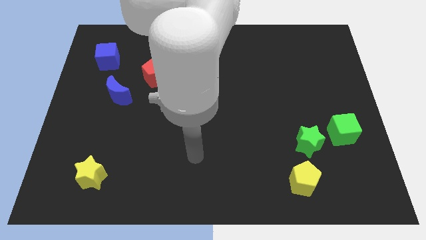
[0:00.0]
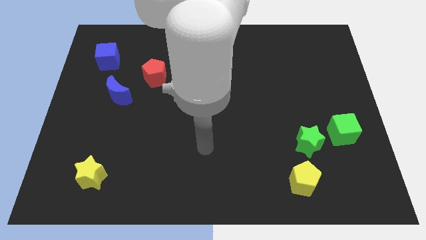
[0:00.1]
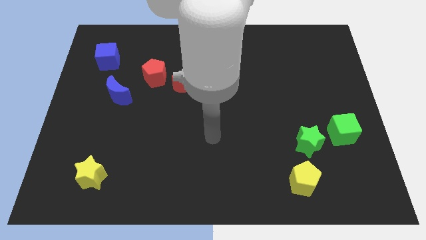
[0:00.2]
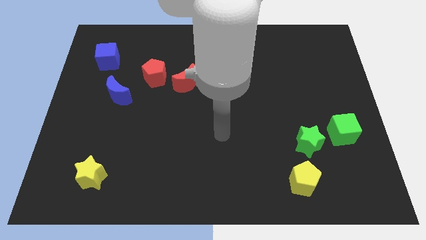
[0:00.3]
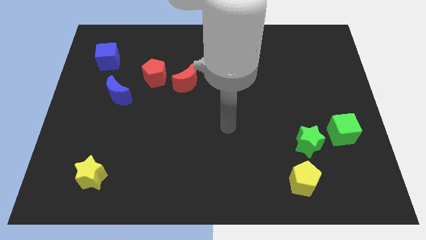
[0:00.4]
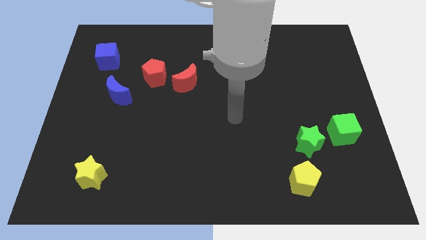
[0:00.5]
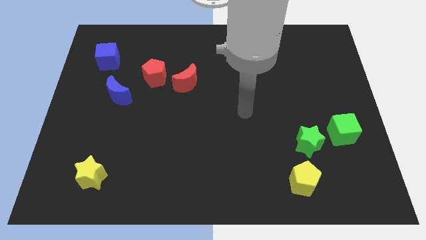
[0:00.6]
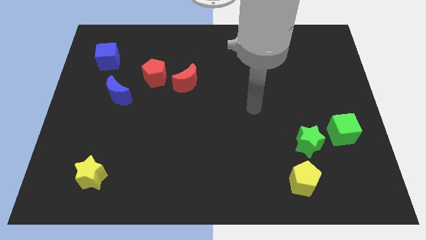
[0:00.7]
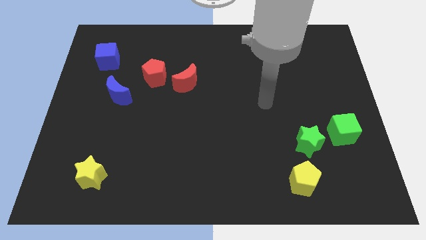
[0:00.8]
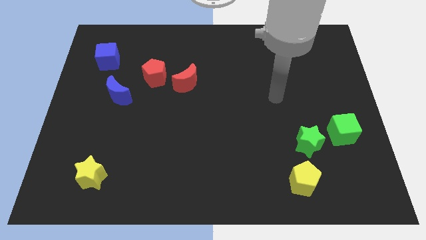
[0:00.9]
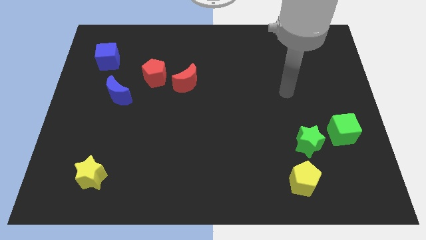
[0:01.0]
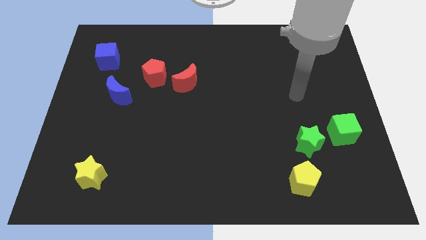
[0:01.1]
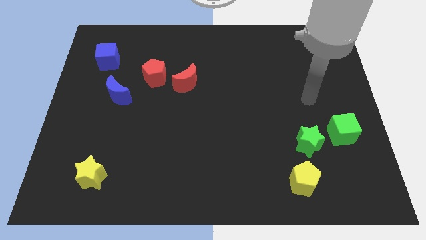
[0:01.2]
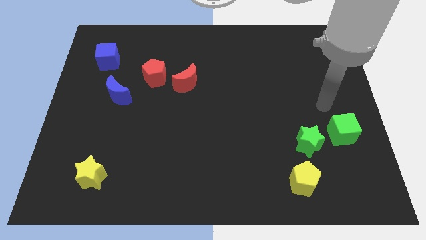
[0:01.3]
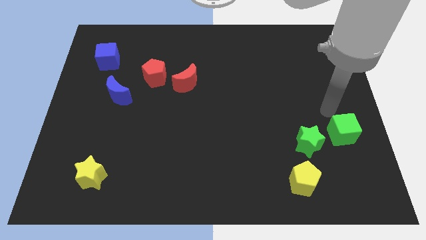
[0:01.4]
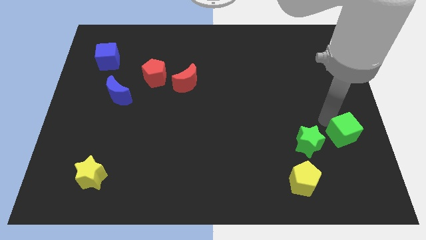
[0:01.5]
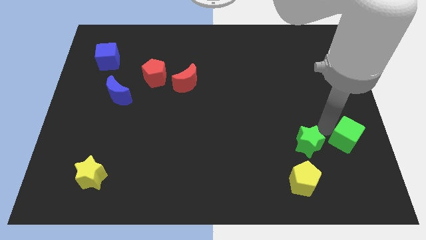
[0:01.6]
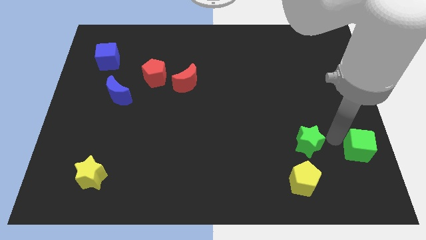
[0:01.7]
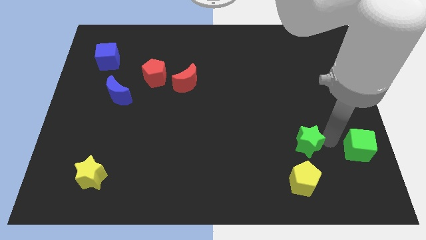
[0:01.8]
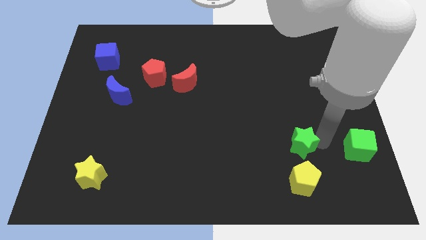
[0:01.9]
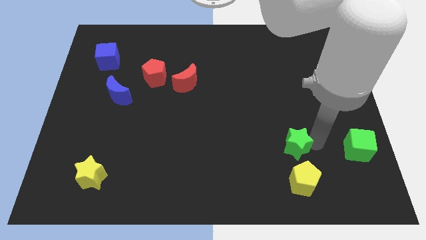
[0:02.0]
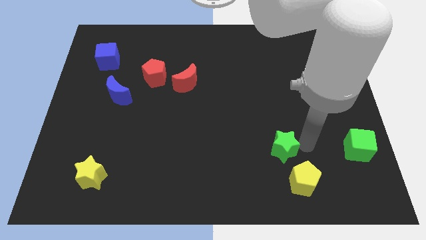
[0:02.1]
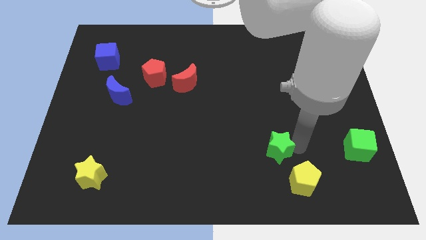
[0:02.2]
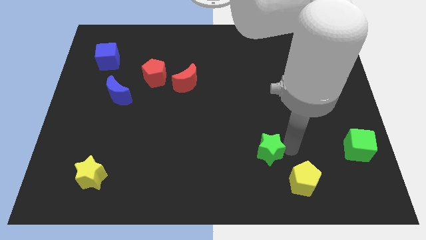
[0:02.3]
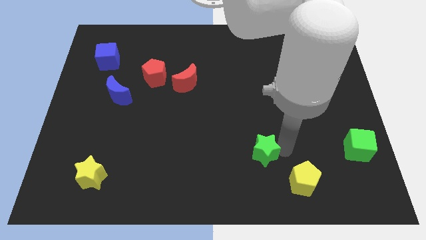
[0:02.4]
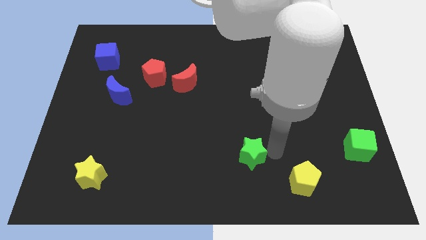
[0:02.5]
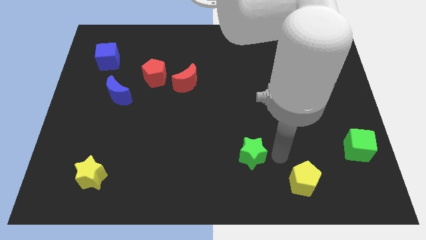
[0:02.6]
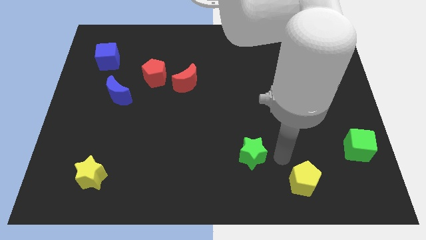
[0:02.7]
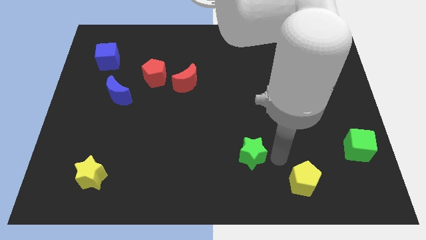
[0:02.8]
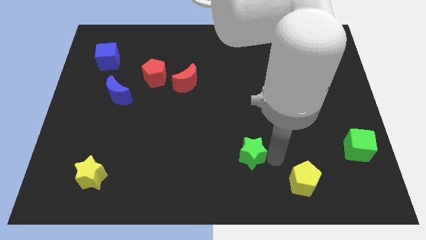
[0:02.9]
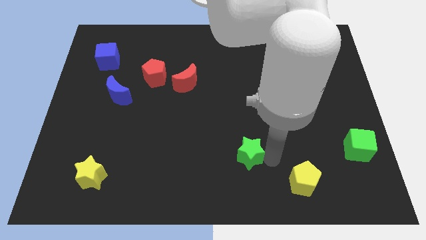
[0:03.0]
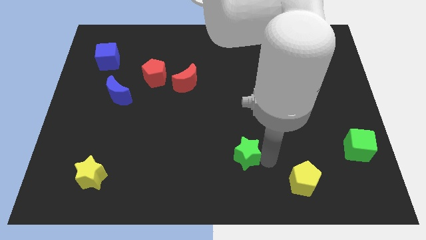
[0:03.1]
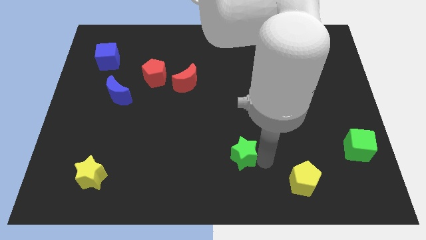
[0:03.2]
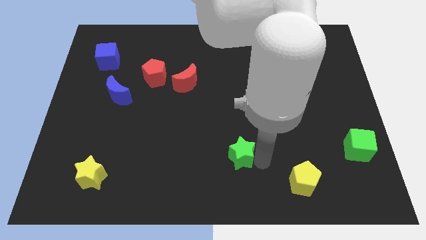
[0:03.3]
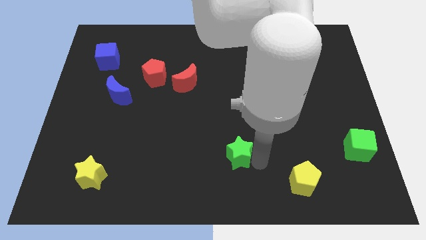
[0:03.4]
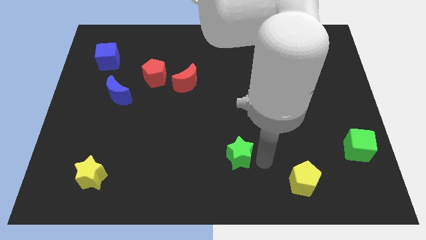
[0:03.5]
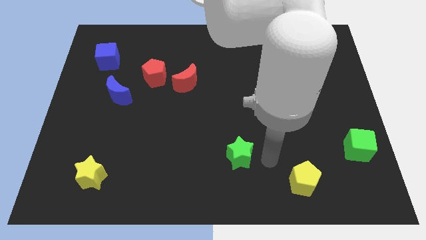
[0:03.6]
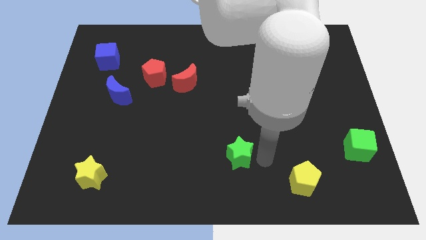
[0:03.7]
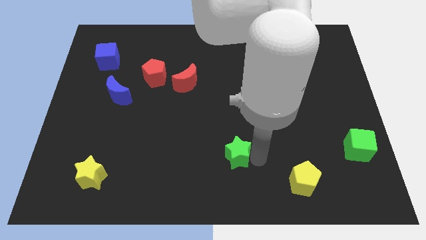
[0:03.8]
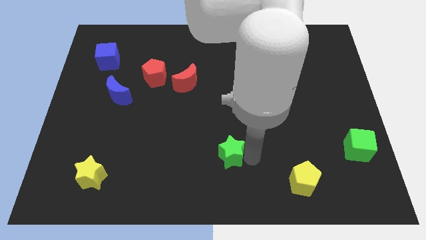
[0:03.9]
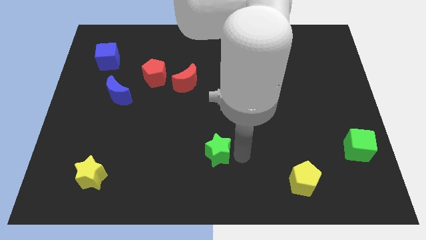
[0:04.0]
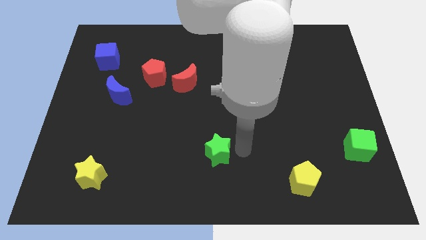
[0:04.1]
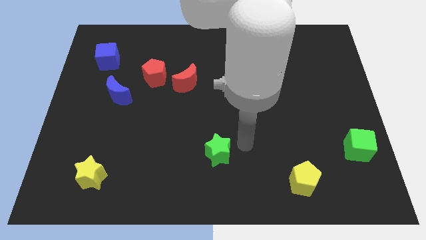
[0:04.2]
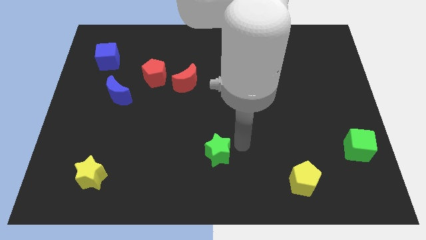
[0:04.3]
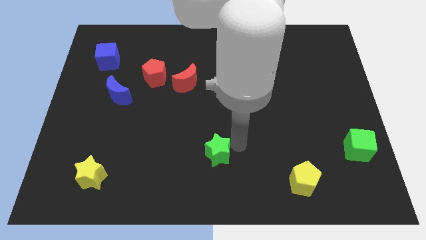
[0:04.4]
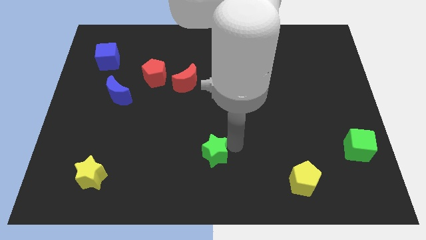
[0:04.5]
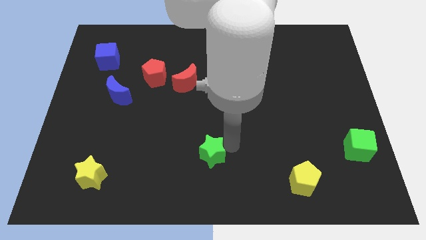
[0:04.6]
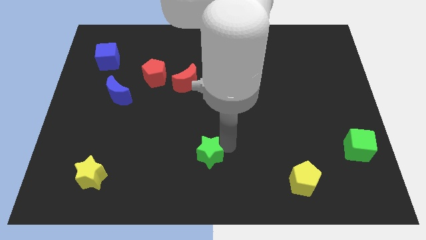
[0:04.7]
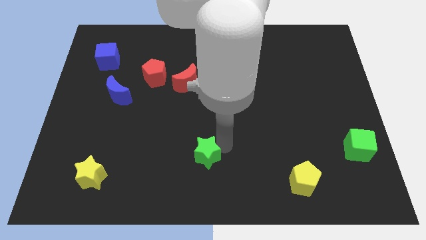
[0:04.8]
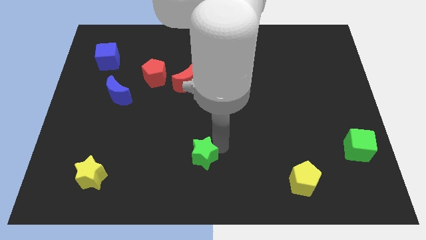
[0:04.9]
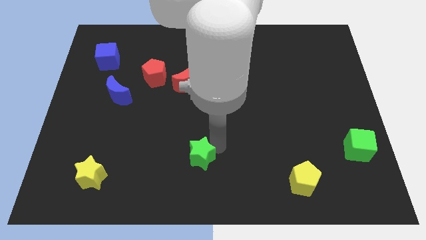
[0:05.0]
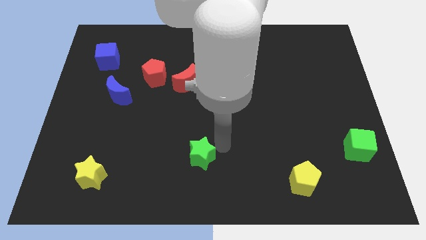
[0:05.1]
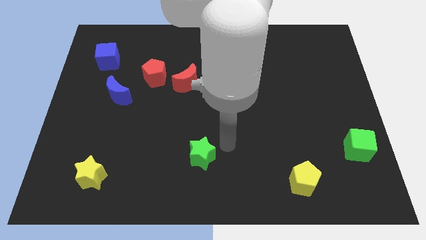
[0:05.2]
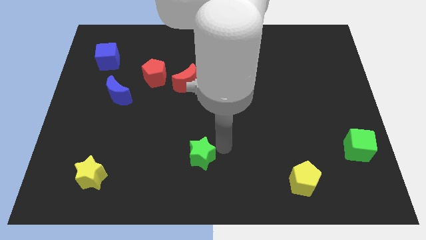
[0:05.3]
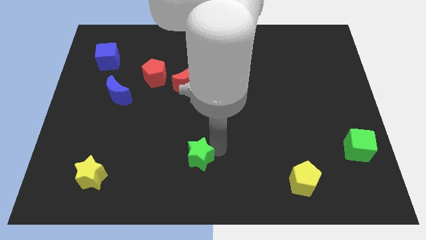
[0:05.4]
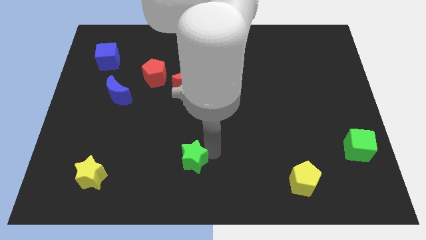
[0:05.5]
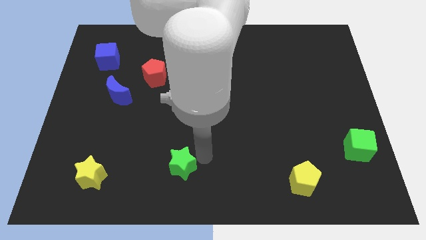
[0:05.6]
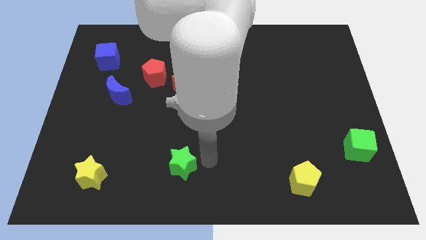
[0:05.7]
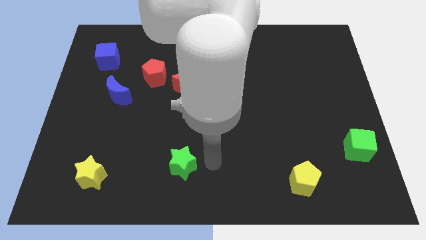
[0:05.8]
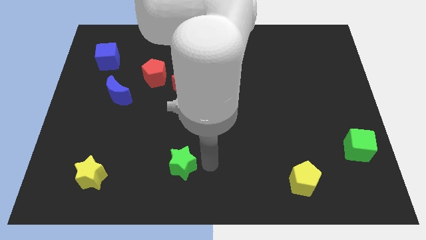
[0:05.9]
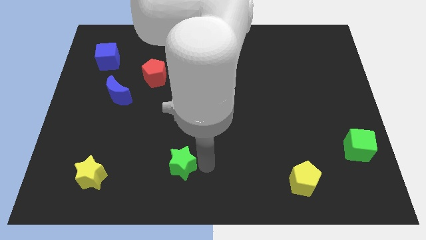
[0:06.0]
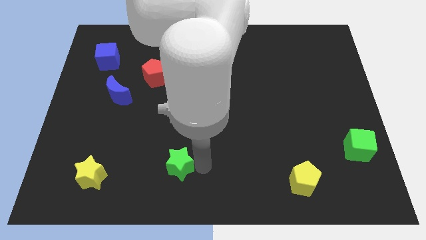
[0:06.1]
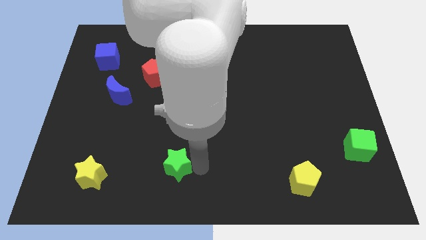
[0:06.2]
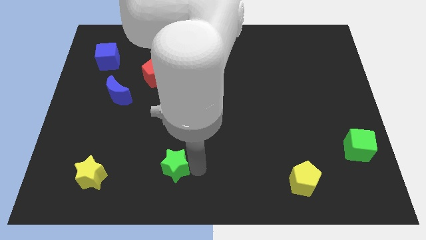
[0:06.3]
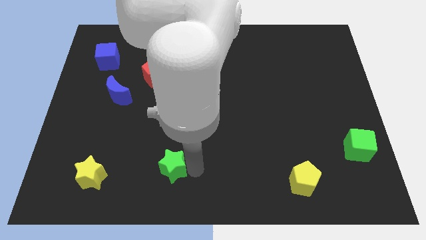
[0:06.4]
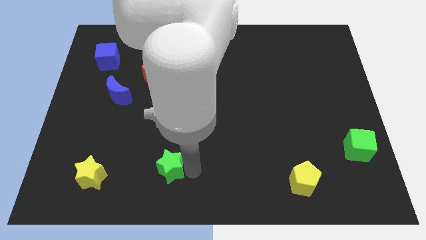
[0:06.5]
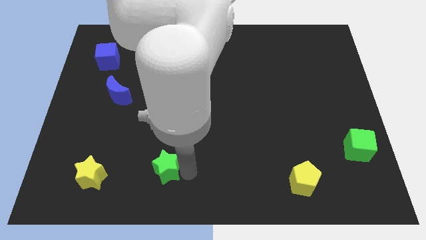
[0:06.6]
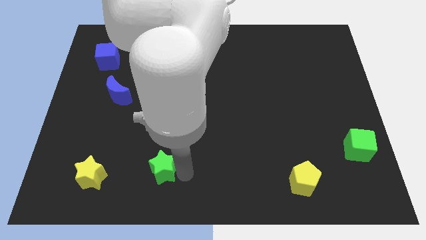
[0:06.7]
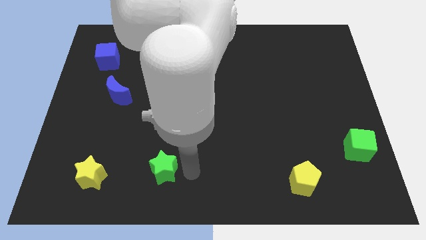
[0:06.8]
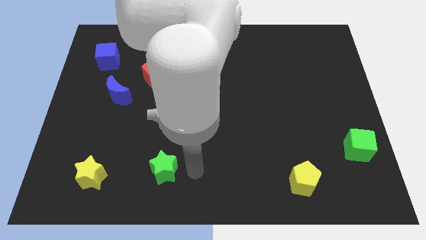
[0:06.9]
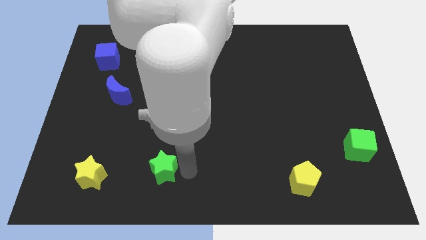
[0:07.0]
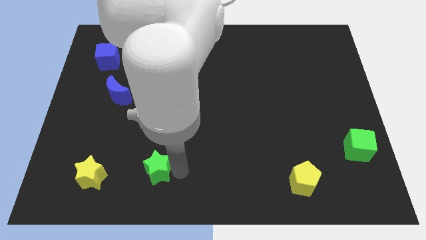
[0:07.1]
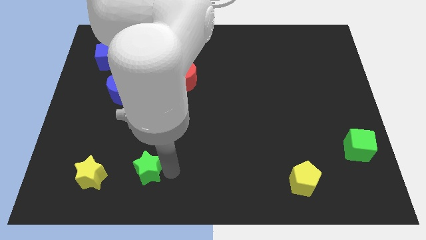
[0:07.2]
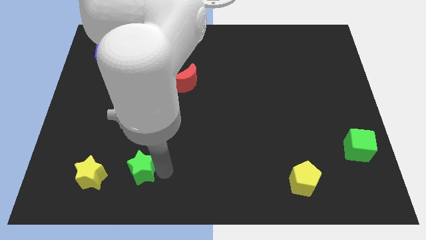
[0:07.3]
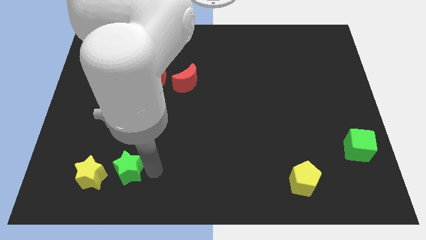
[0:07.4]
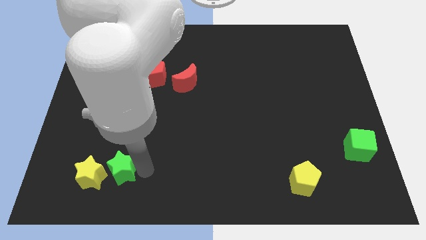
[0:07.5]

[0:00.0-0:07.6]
slide the green star towards the yellow star
